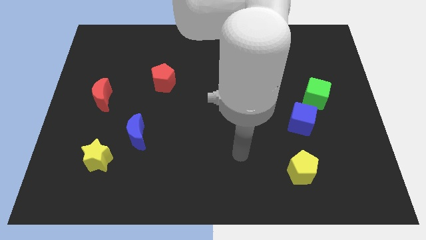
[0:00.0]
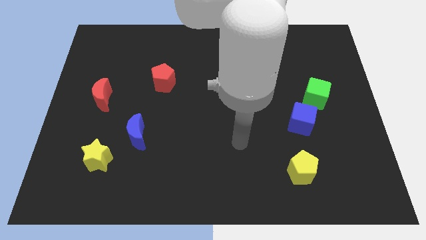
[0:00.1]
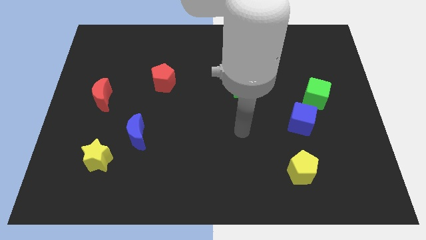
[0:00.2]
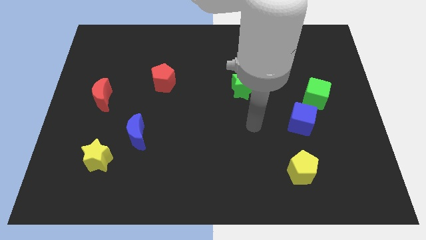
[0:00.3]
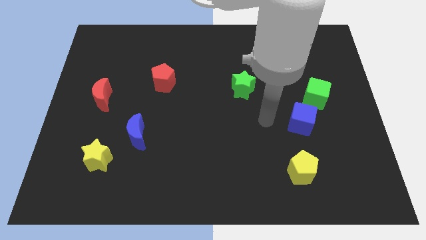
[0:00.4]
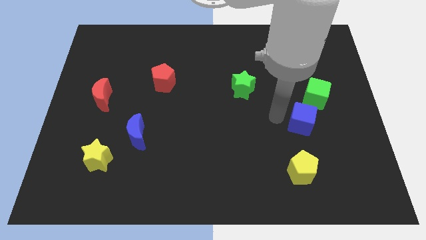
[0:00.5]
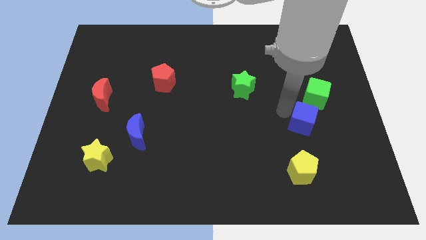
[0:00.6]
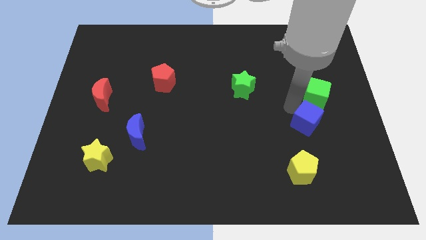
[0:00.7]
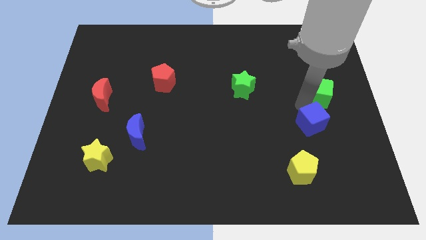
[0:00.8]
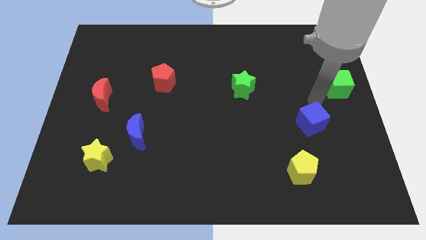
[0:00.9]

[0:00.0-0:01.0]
separate the blue cube from the green cube

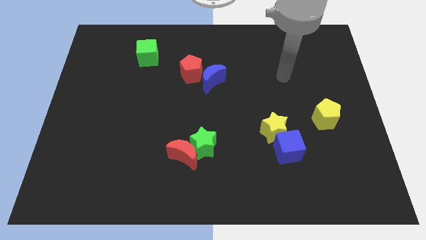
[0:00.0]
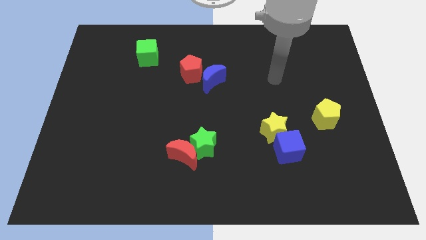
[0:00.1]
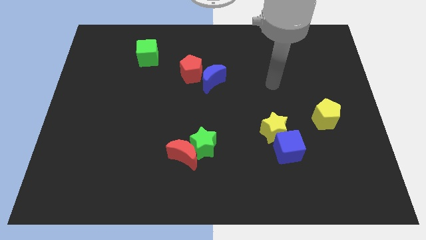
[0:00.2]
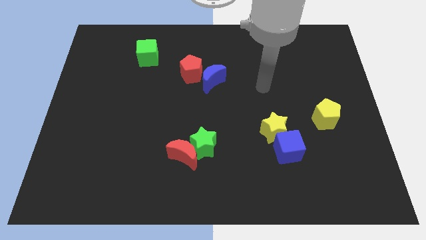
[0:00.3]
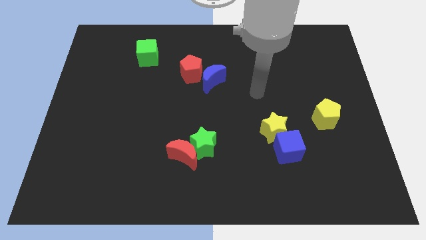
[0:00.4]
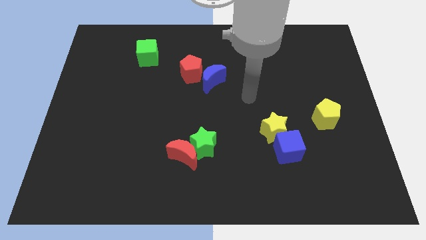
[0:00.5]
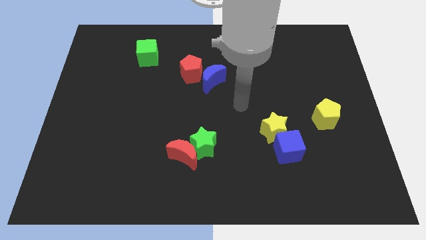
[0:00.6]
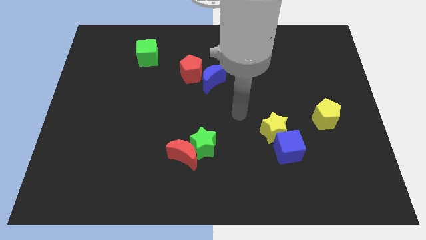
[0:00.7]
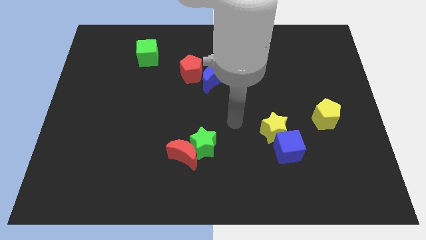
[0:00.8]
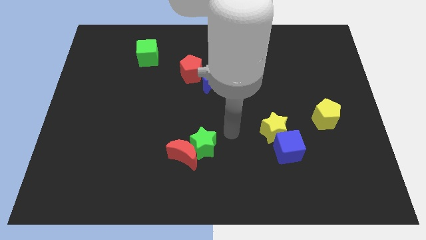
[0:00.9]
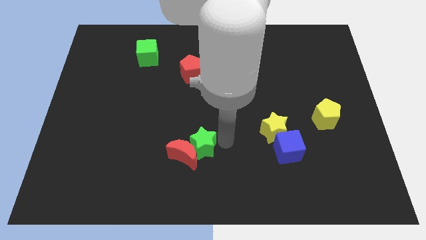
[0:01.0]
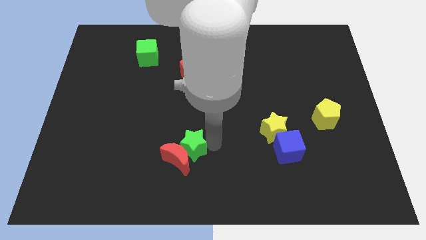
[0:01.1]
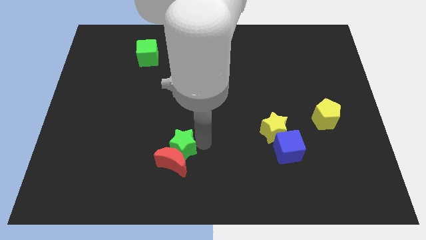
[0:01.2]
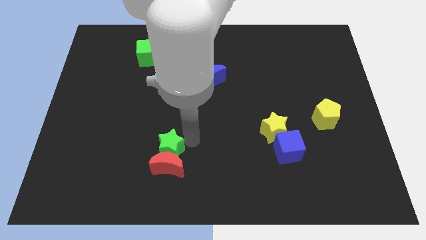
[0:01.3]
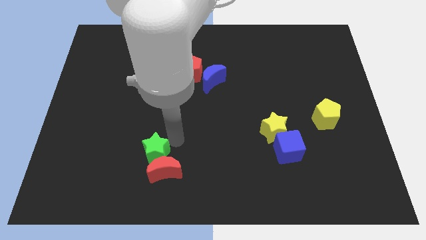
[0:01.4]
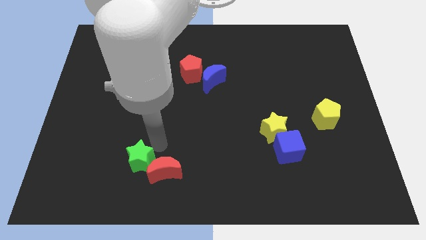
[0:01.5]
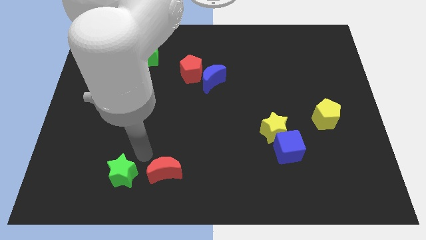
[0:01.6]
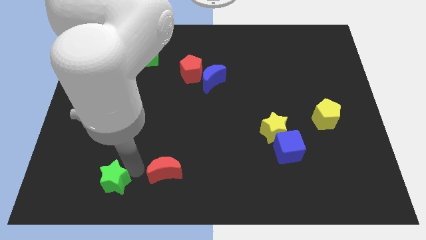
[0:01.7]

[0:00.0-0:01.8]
separate the red moon from the green star

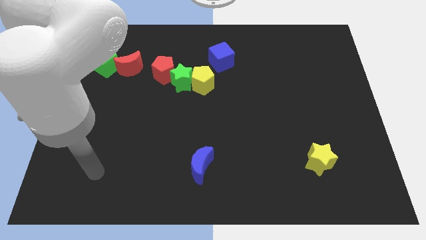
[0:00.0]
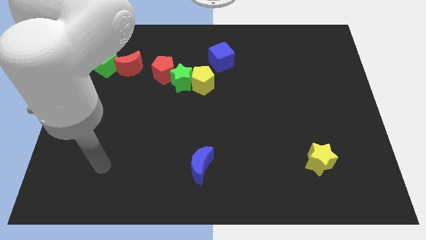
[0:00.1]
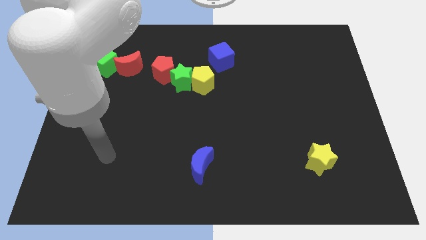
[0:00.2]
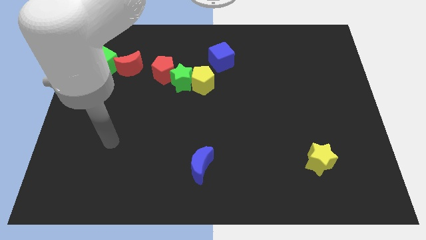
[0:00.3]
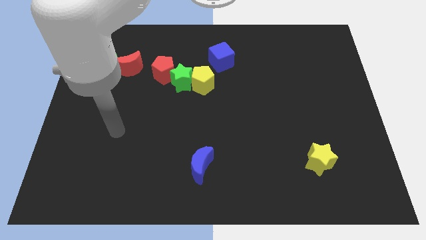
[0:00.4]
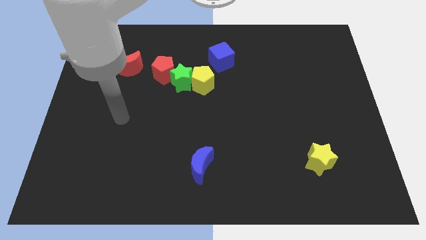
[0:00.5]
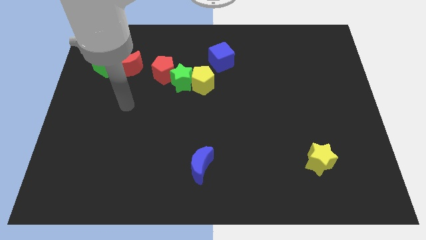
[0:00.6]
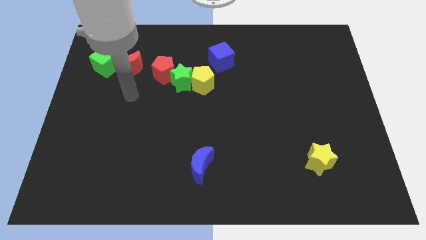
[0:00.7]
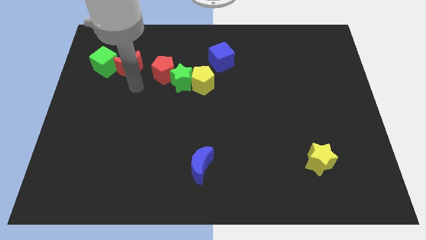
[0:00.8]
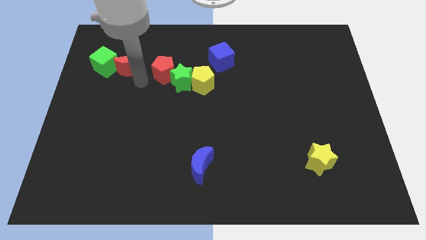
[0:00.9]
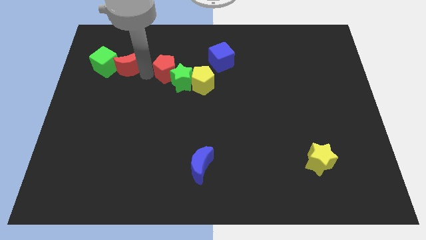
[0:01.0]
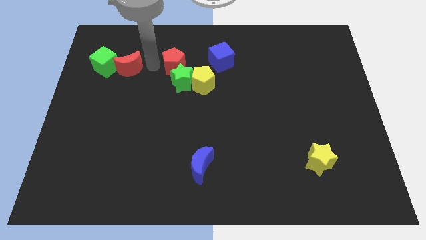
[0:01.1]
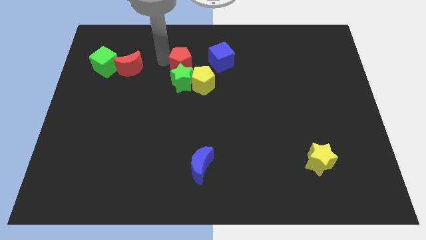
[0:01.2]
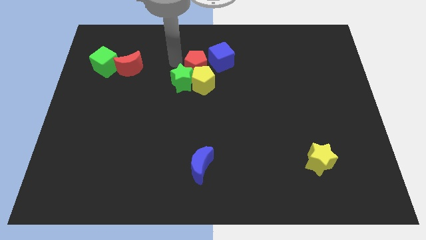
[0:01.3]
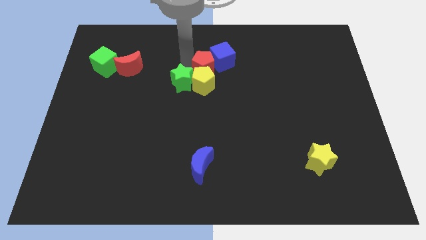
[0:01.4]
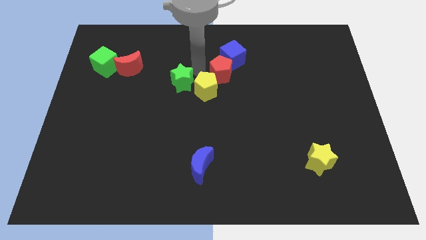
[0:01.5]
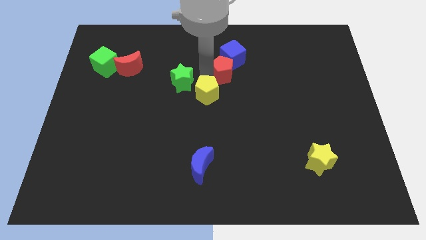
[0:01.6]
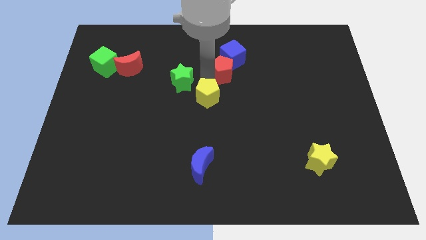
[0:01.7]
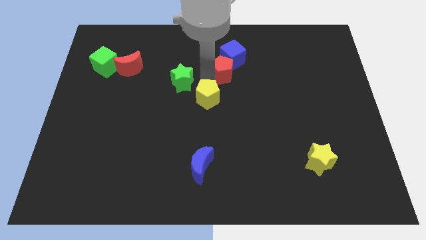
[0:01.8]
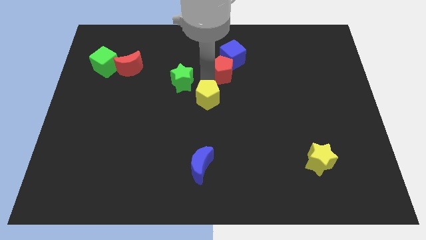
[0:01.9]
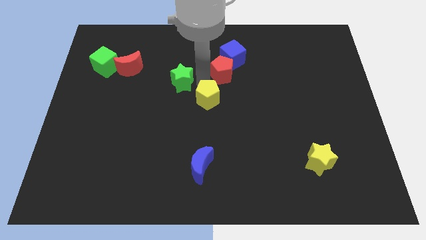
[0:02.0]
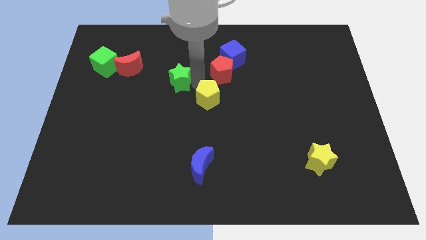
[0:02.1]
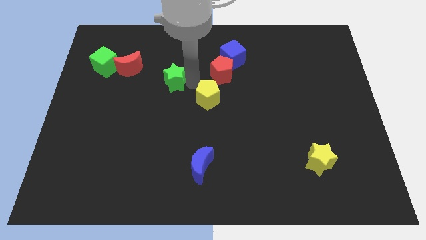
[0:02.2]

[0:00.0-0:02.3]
move the green star away from the red pentagon and yellow pentagon

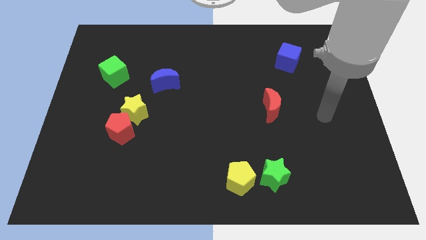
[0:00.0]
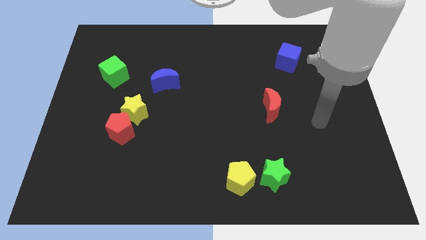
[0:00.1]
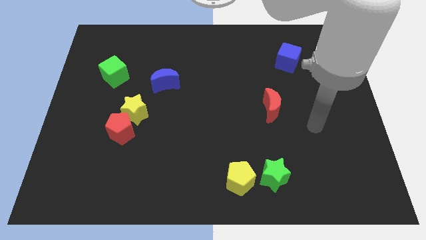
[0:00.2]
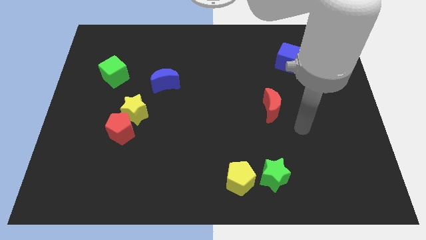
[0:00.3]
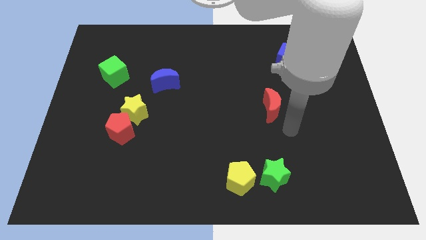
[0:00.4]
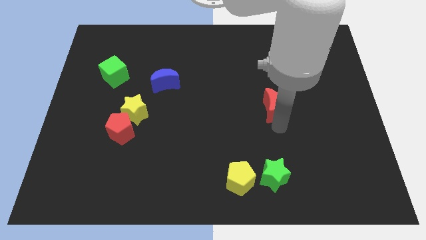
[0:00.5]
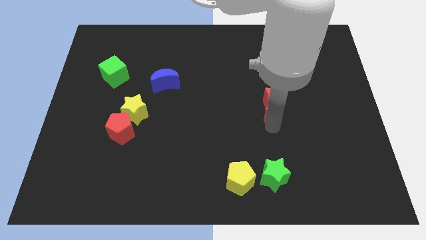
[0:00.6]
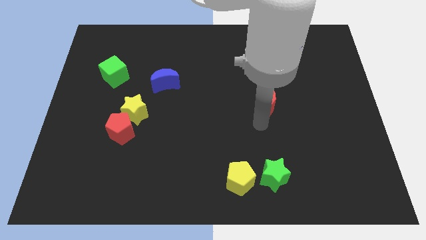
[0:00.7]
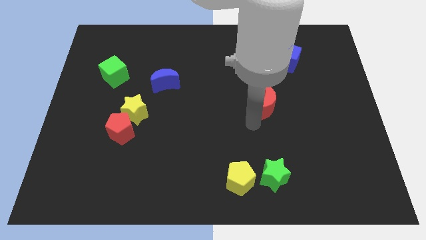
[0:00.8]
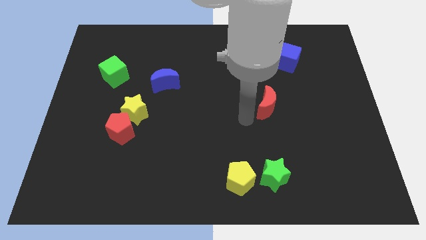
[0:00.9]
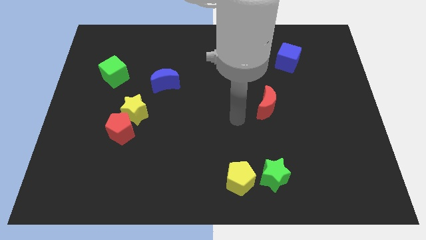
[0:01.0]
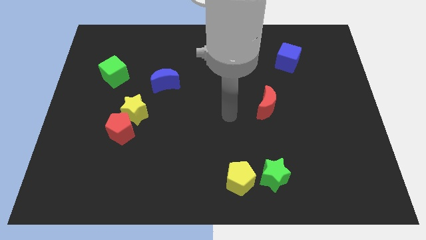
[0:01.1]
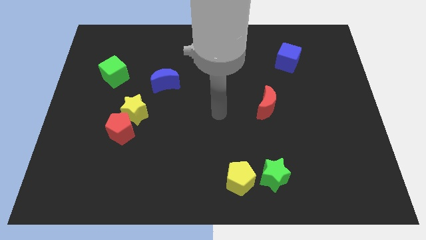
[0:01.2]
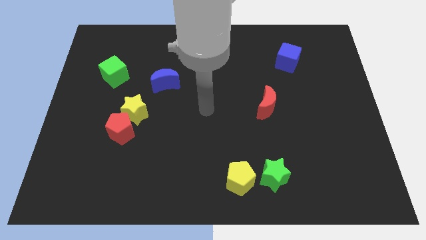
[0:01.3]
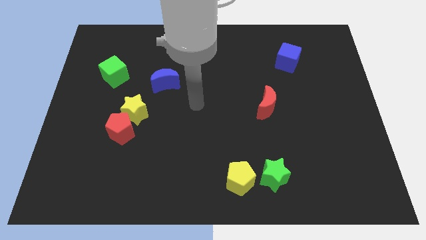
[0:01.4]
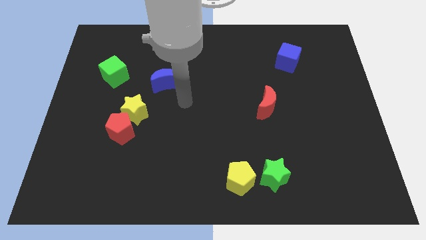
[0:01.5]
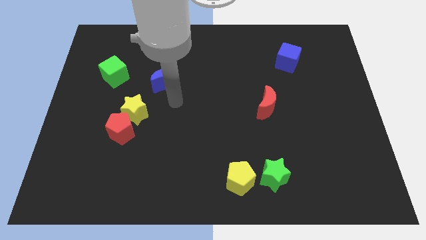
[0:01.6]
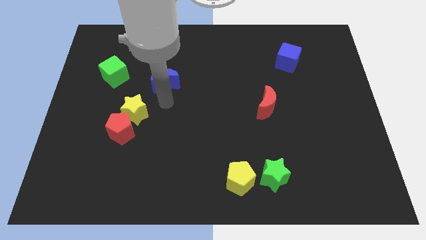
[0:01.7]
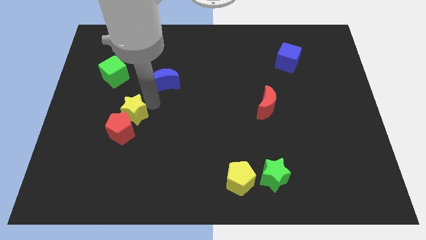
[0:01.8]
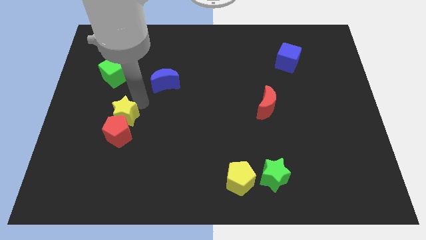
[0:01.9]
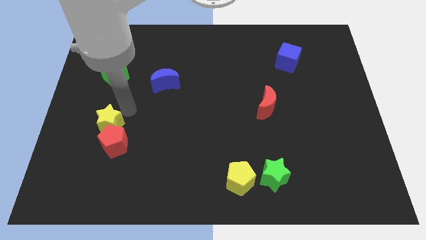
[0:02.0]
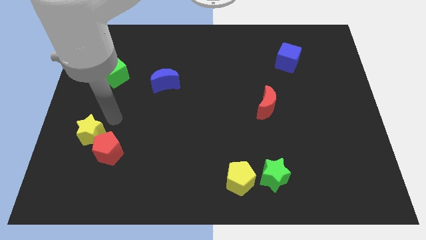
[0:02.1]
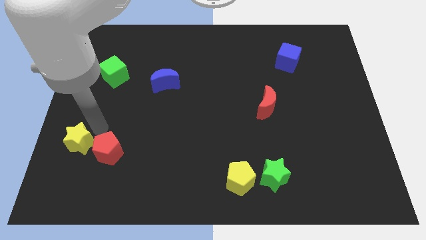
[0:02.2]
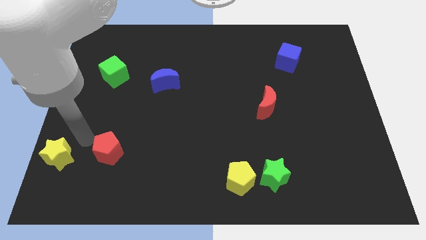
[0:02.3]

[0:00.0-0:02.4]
separate the red pentagon from the yellow star

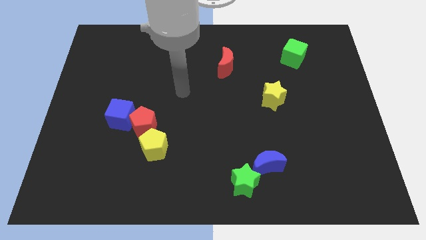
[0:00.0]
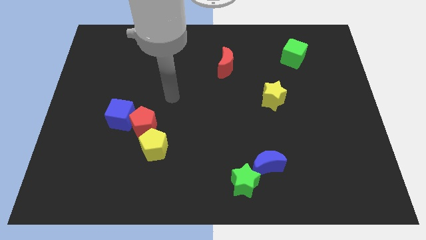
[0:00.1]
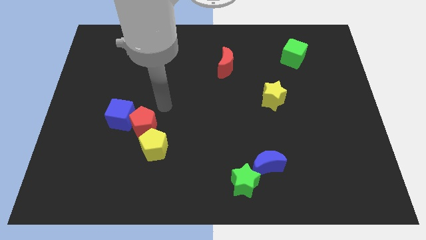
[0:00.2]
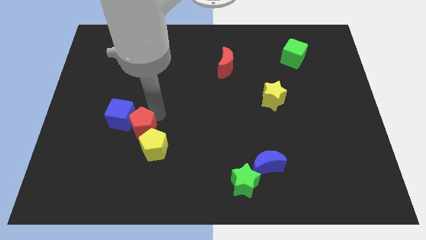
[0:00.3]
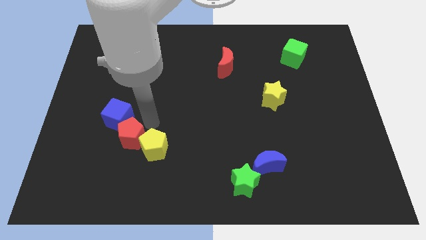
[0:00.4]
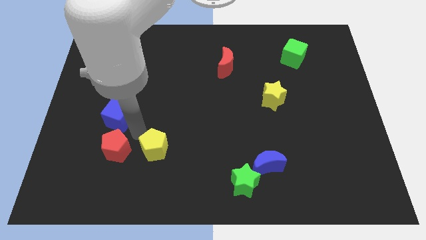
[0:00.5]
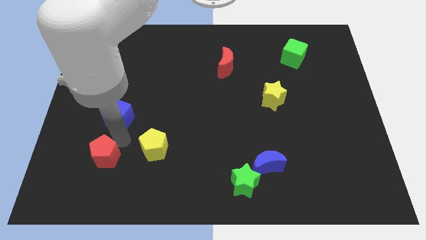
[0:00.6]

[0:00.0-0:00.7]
separate the blue cube from the red pentagon

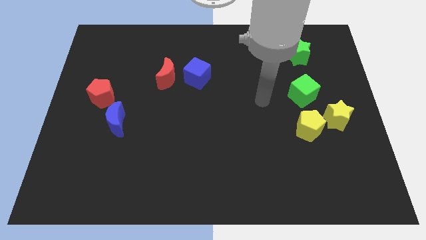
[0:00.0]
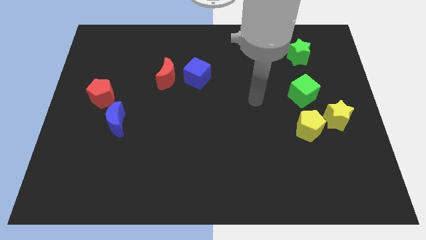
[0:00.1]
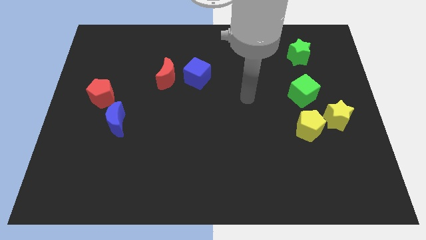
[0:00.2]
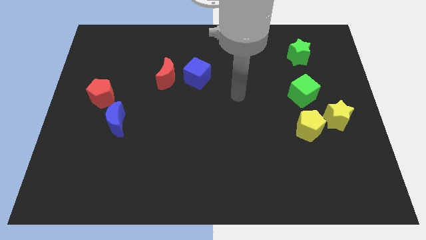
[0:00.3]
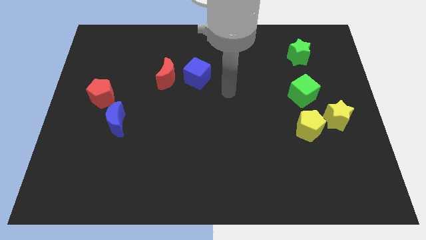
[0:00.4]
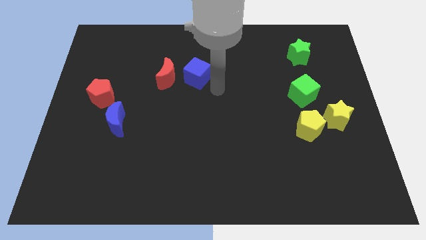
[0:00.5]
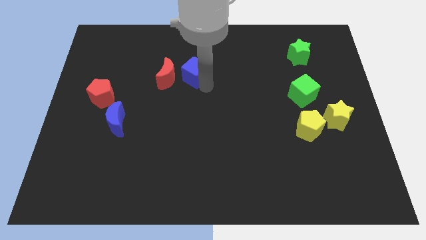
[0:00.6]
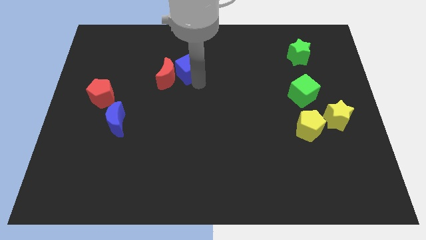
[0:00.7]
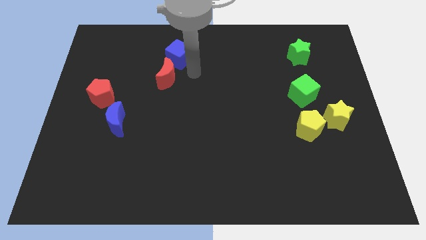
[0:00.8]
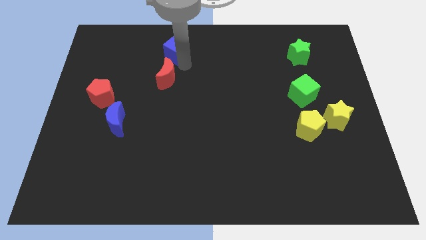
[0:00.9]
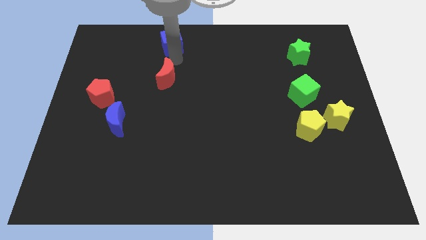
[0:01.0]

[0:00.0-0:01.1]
move the red moon away from the blue cube
